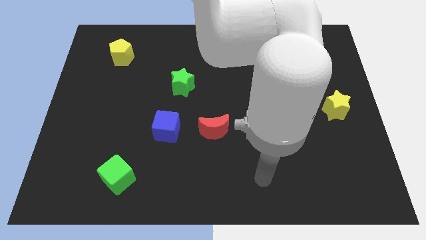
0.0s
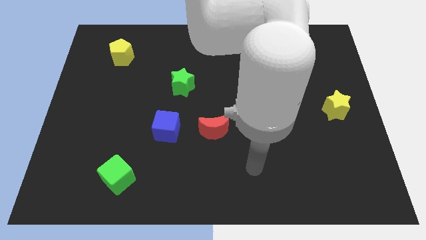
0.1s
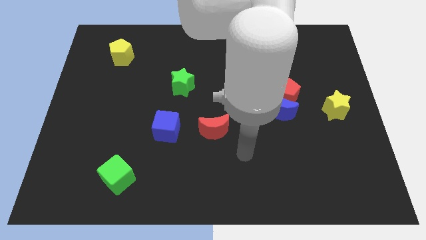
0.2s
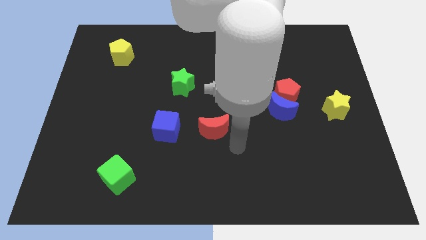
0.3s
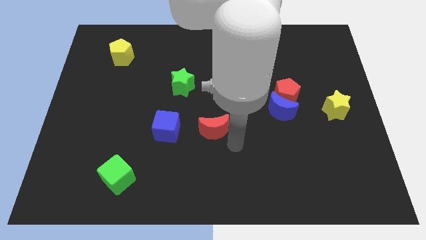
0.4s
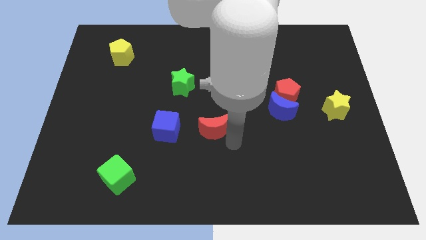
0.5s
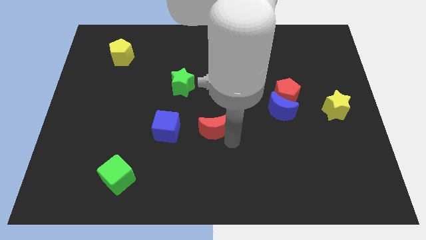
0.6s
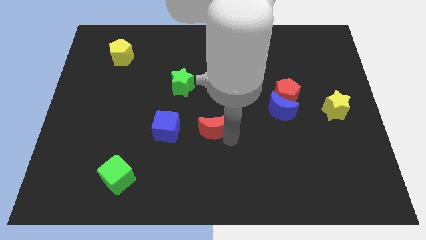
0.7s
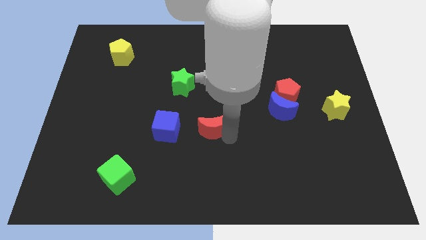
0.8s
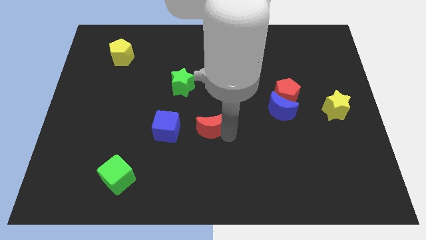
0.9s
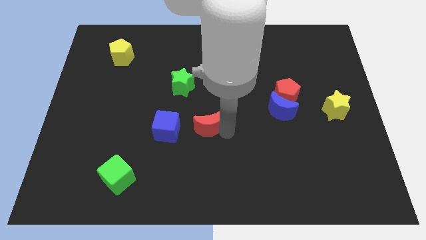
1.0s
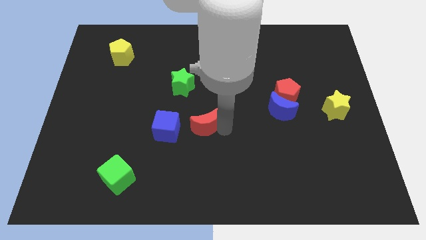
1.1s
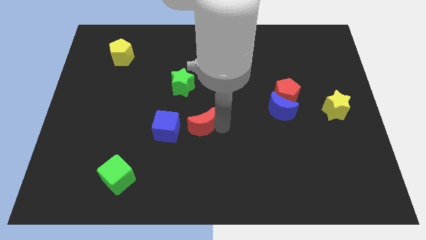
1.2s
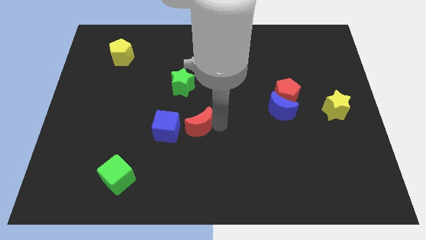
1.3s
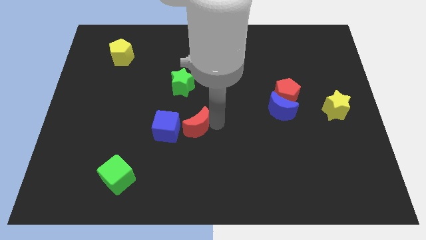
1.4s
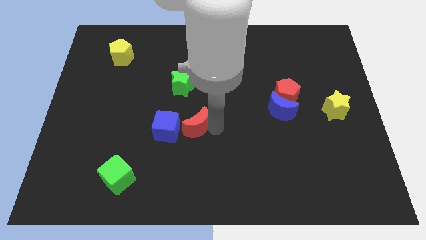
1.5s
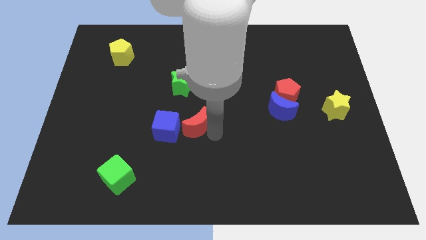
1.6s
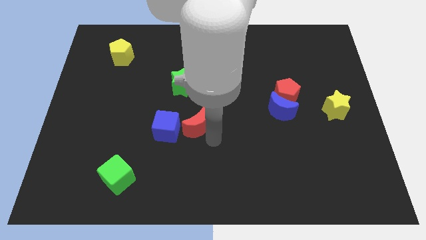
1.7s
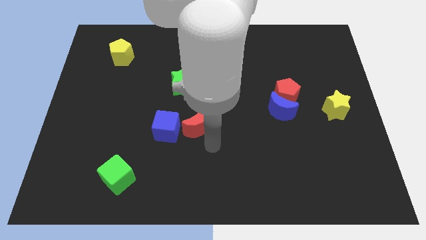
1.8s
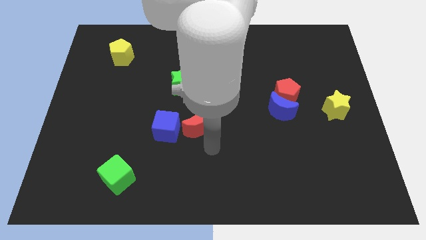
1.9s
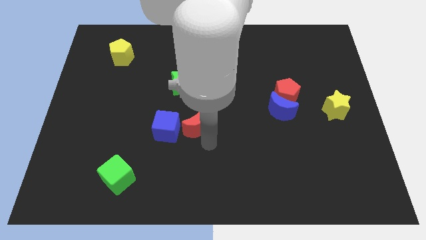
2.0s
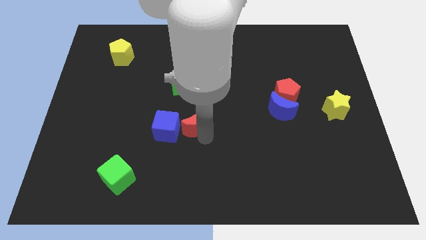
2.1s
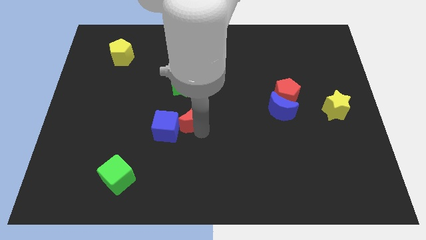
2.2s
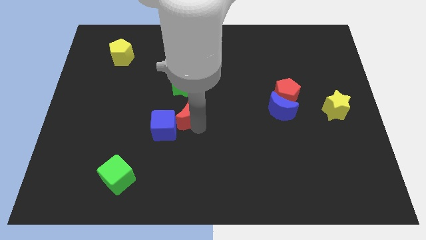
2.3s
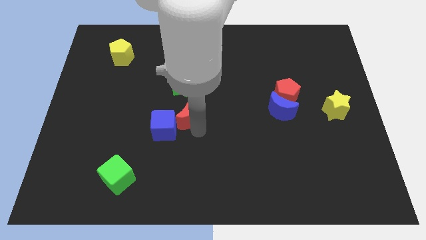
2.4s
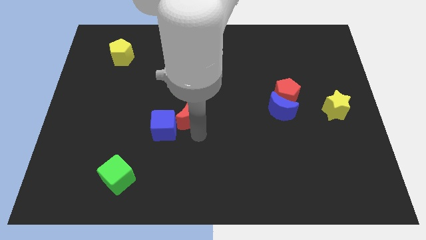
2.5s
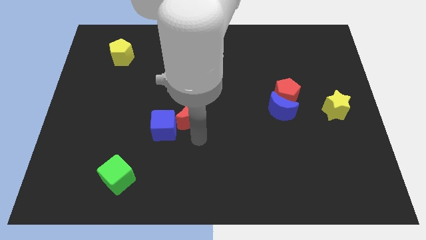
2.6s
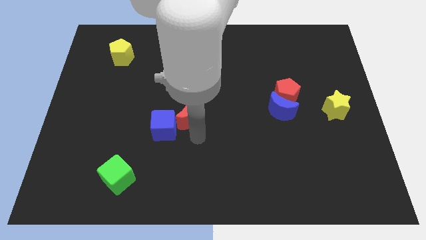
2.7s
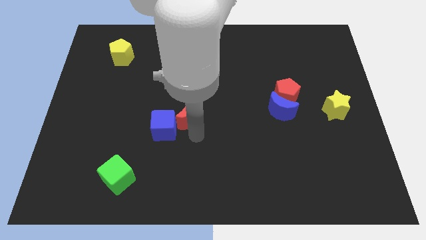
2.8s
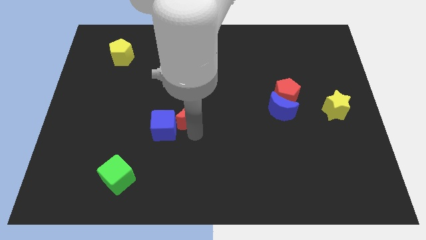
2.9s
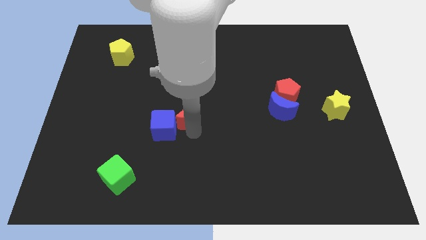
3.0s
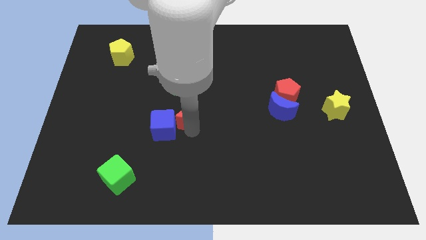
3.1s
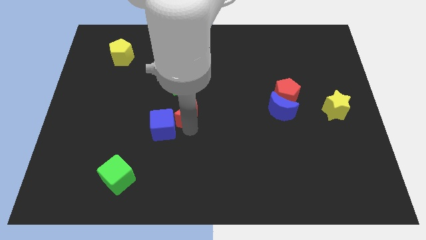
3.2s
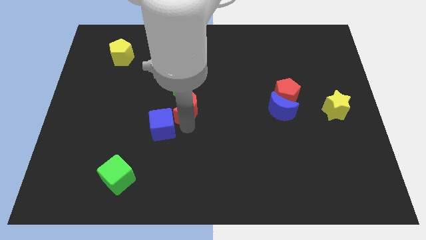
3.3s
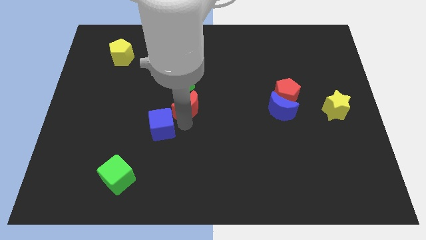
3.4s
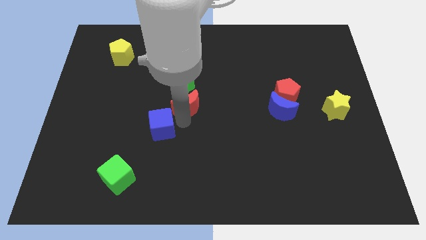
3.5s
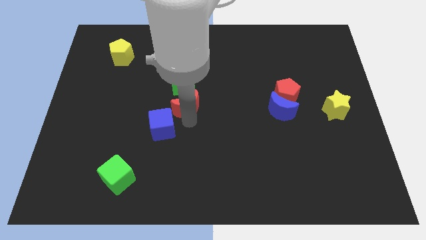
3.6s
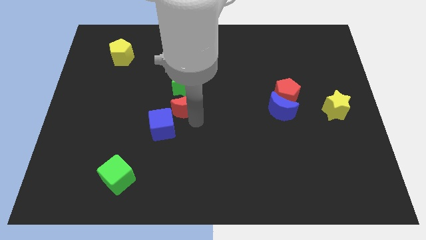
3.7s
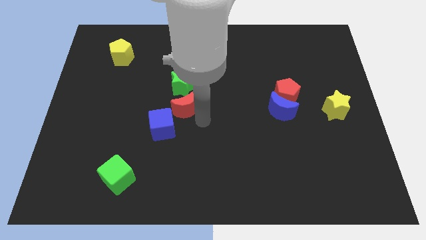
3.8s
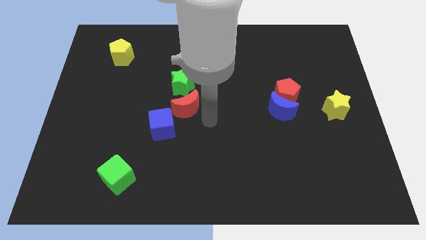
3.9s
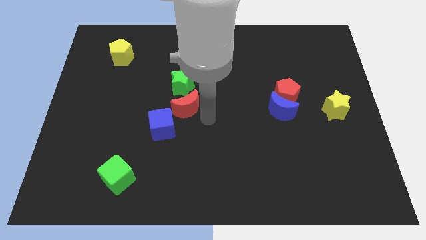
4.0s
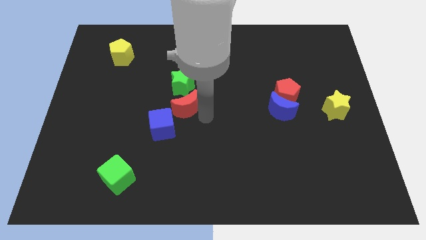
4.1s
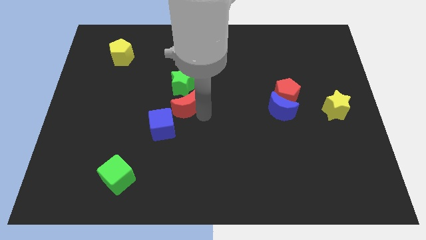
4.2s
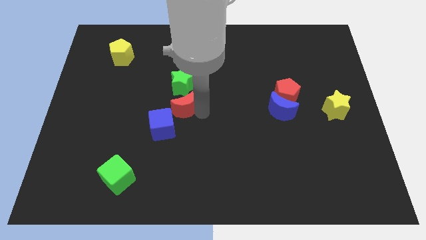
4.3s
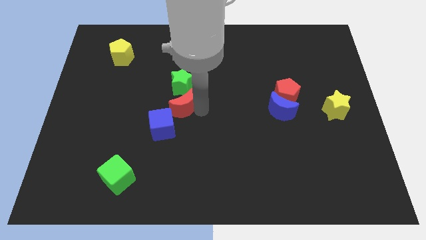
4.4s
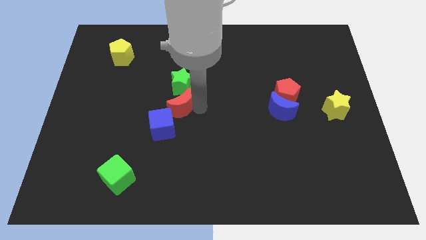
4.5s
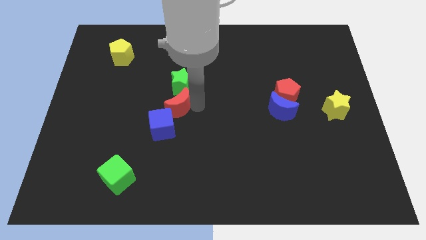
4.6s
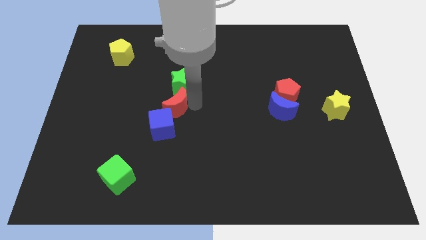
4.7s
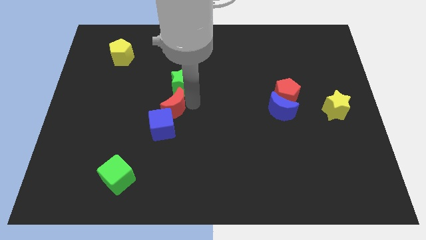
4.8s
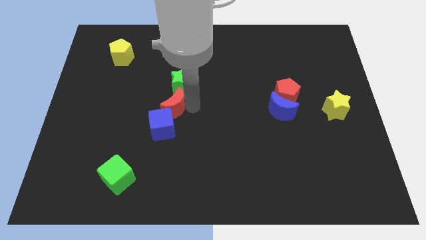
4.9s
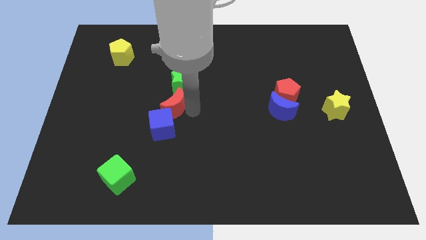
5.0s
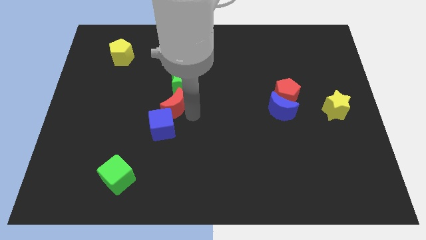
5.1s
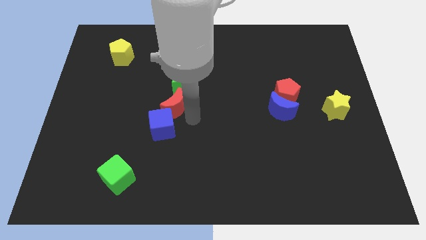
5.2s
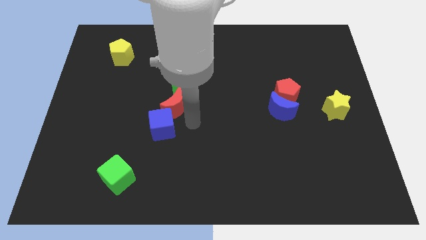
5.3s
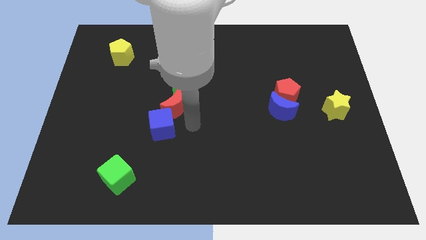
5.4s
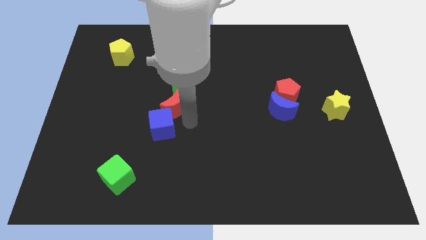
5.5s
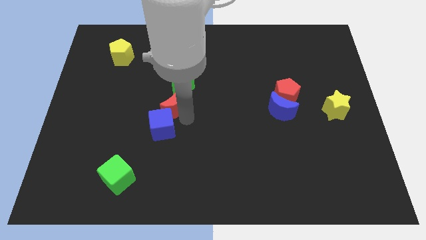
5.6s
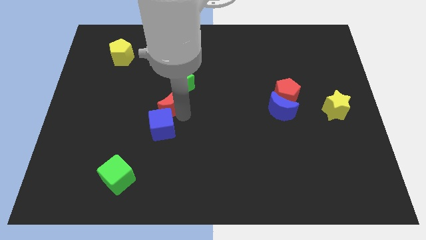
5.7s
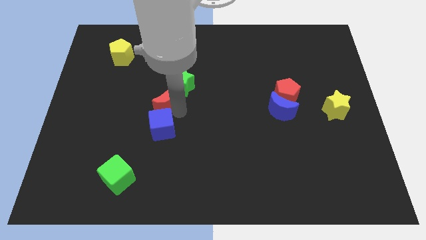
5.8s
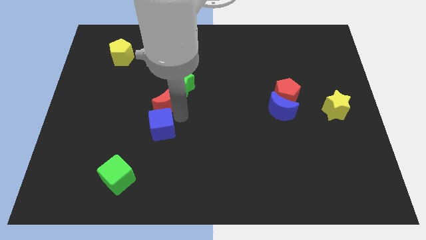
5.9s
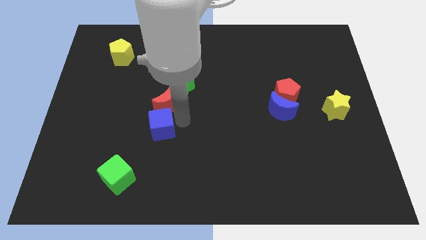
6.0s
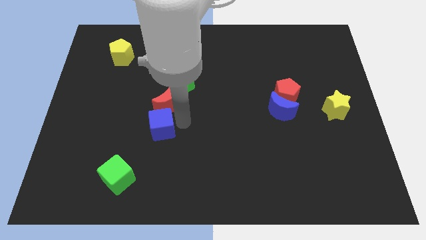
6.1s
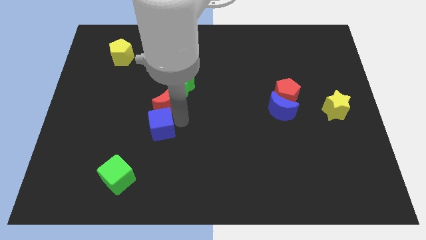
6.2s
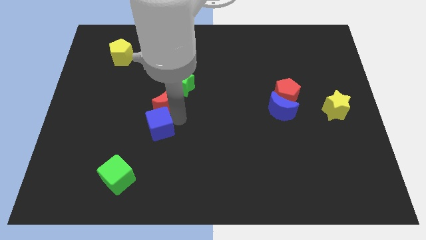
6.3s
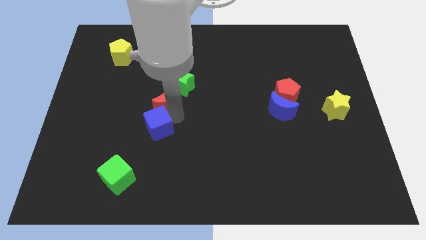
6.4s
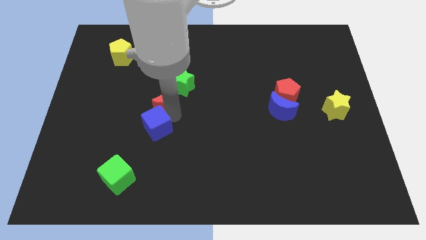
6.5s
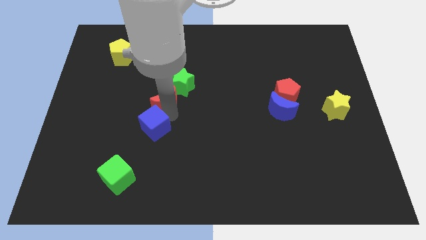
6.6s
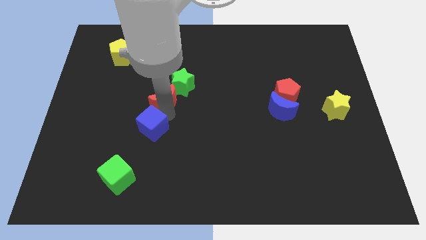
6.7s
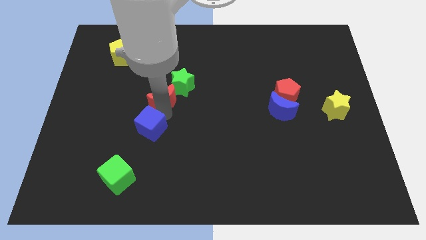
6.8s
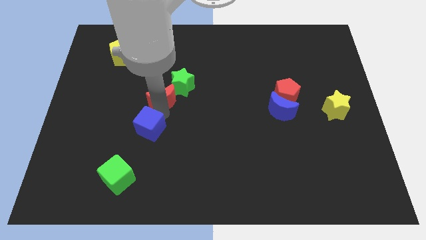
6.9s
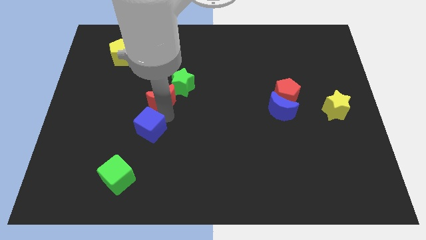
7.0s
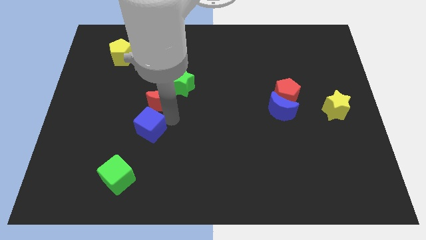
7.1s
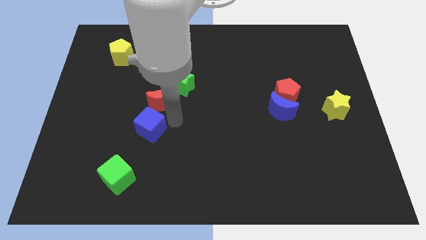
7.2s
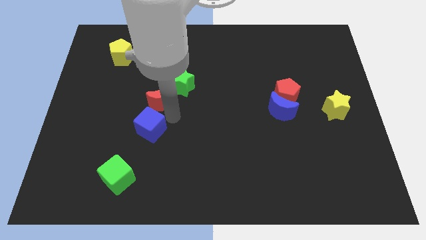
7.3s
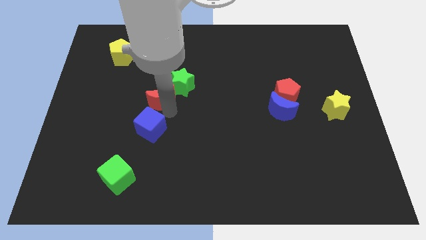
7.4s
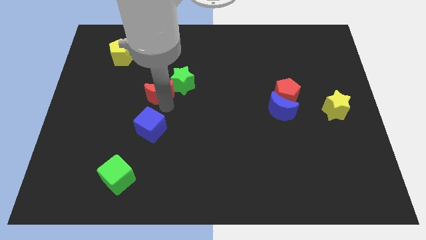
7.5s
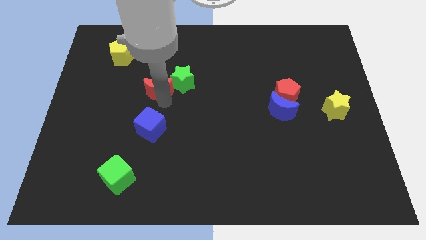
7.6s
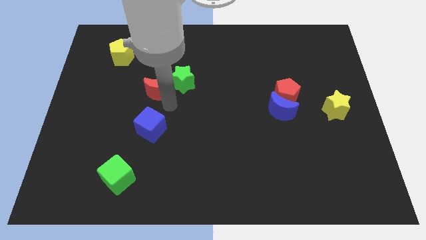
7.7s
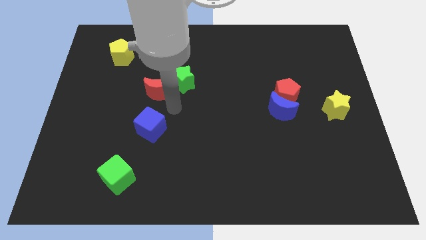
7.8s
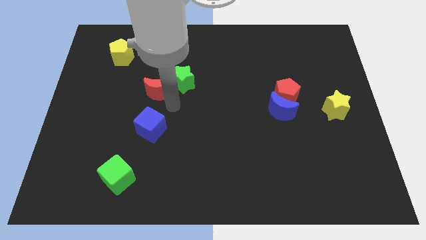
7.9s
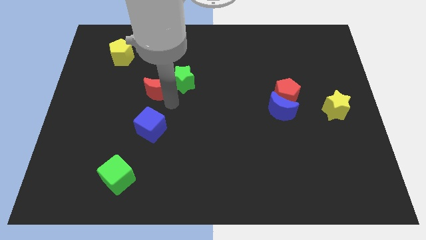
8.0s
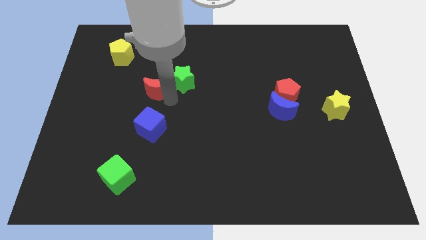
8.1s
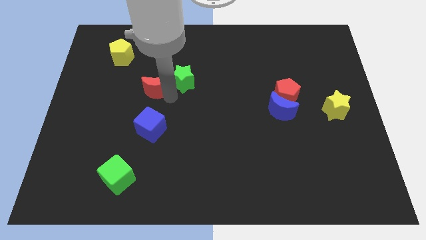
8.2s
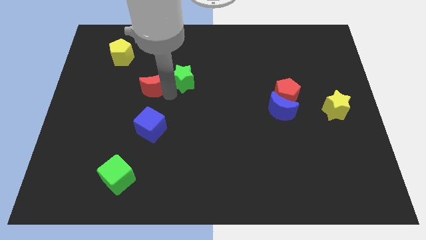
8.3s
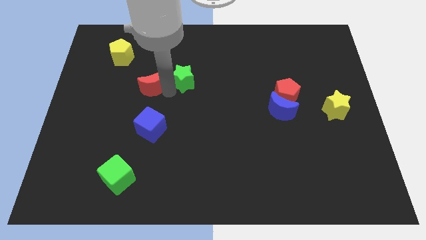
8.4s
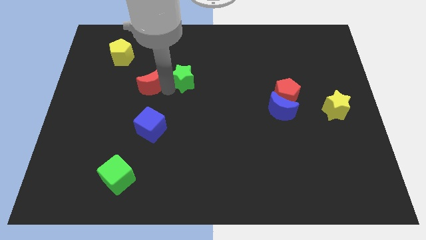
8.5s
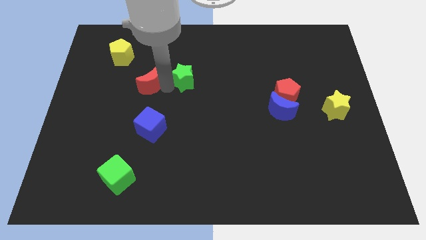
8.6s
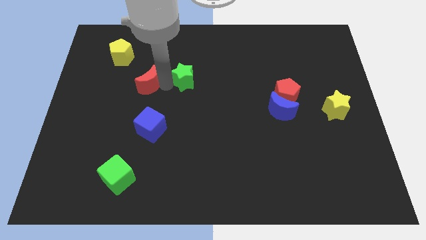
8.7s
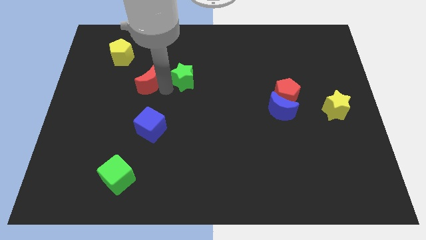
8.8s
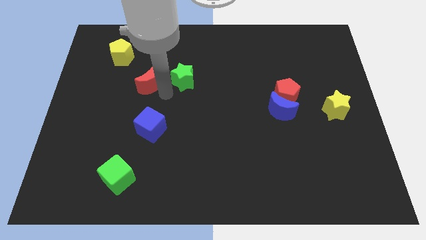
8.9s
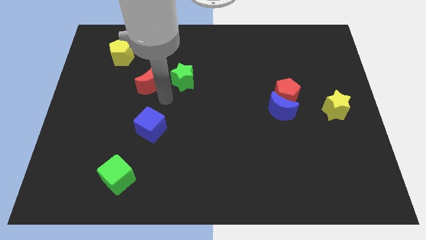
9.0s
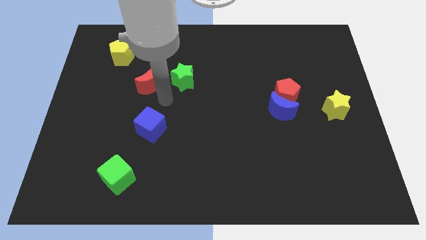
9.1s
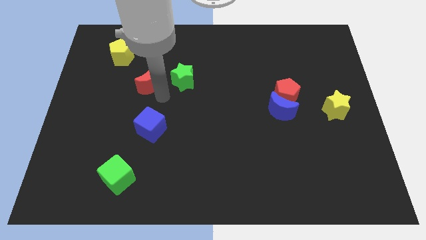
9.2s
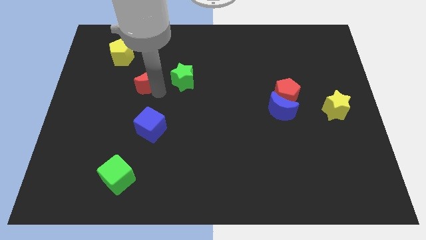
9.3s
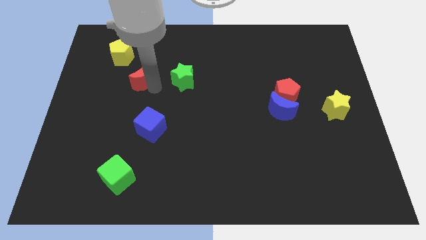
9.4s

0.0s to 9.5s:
slide the red moon to the bottom right side of the yellow pentagon
